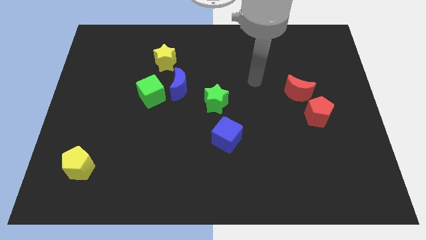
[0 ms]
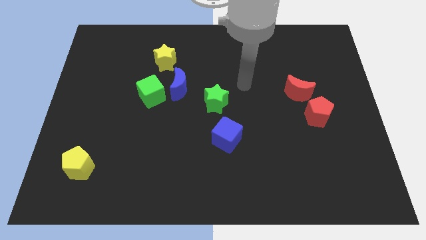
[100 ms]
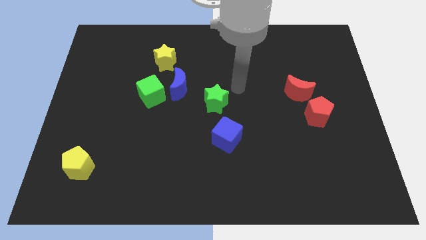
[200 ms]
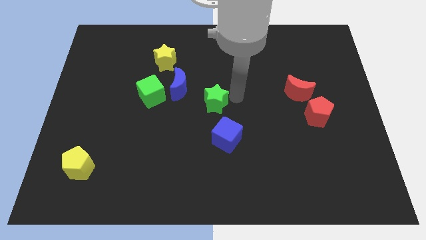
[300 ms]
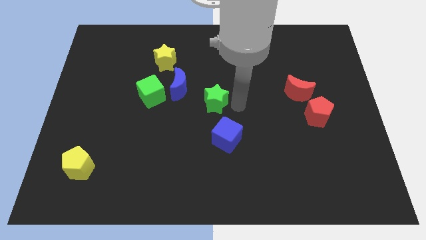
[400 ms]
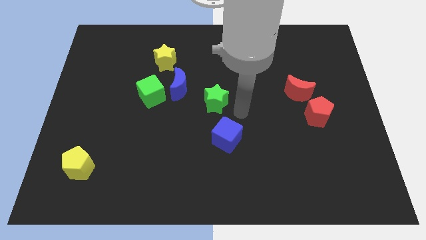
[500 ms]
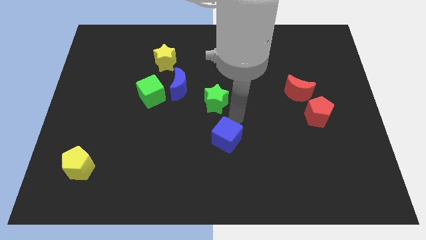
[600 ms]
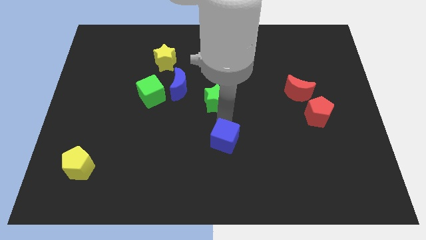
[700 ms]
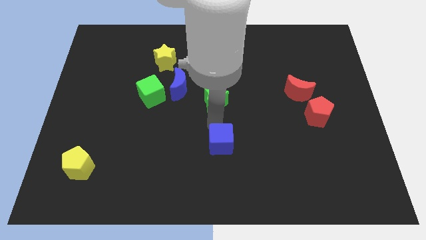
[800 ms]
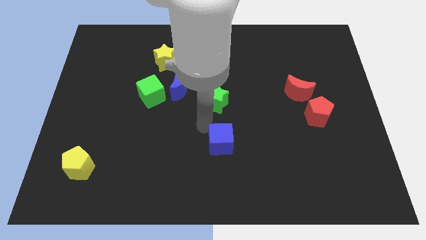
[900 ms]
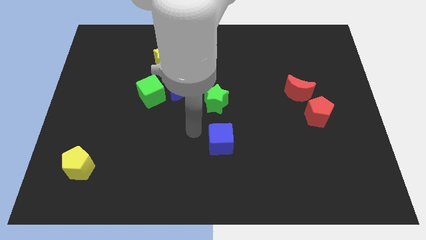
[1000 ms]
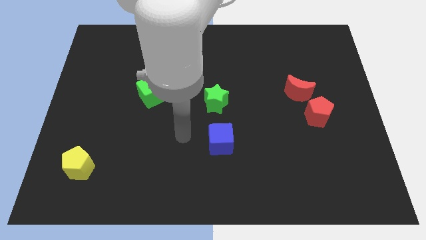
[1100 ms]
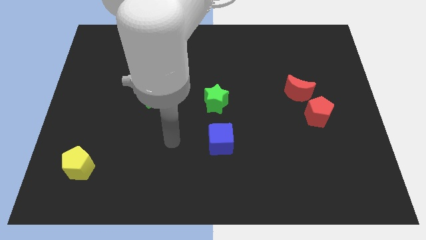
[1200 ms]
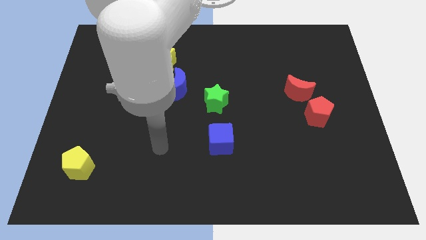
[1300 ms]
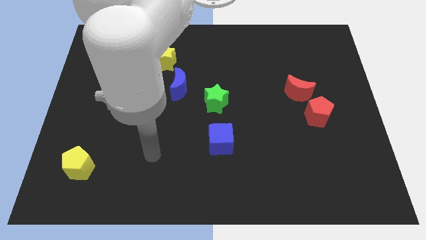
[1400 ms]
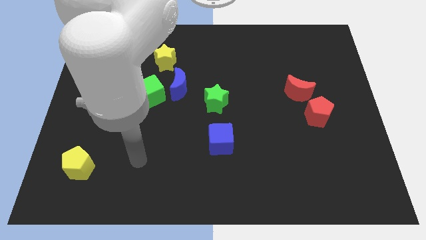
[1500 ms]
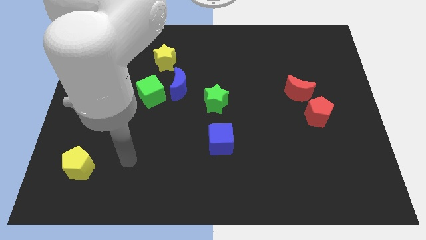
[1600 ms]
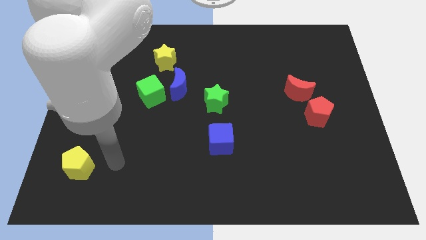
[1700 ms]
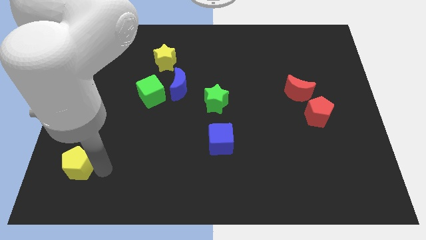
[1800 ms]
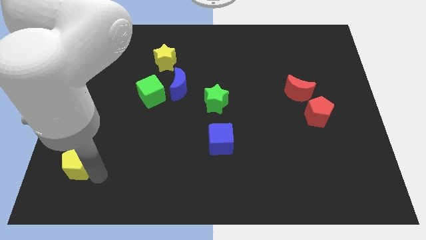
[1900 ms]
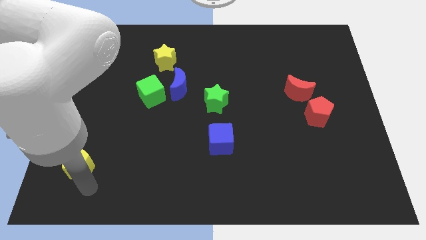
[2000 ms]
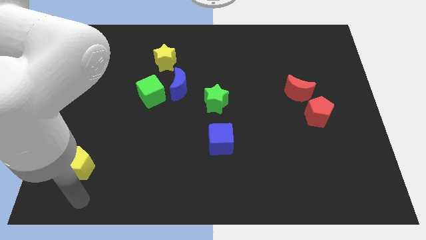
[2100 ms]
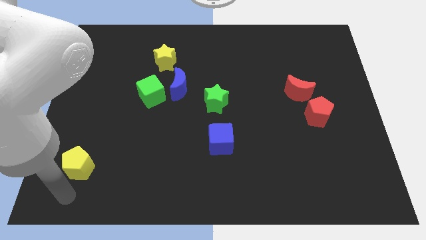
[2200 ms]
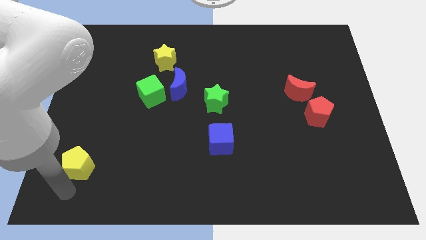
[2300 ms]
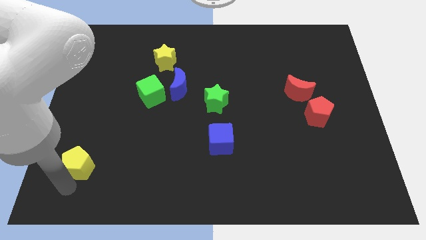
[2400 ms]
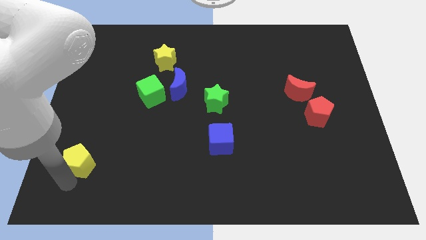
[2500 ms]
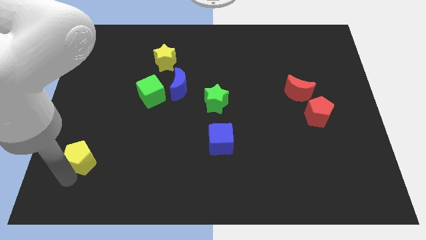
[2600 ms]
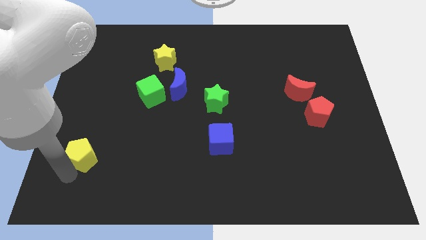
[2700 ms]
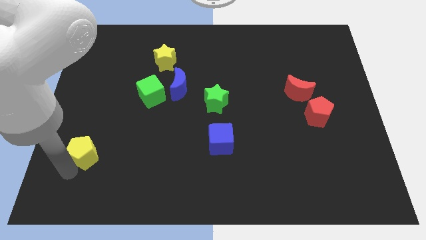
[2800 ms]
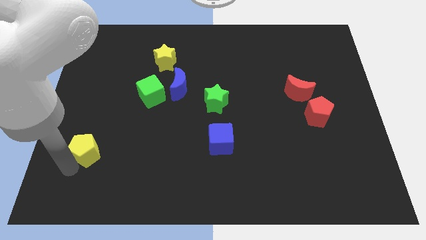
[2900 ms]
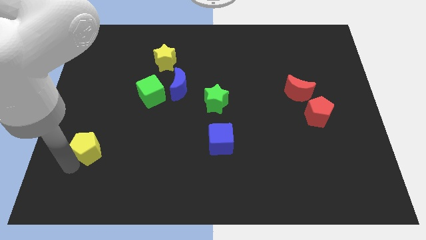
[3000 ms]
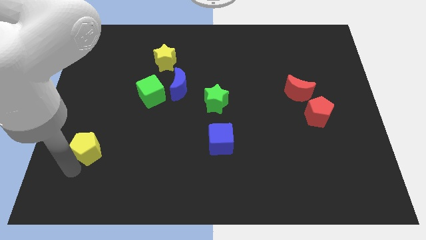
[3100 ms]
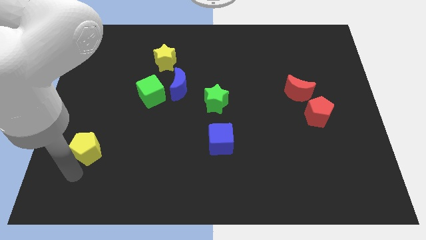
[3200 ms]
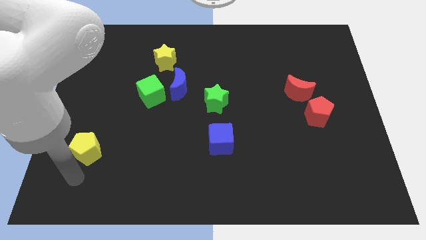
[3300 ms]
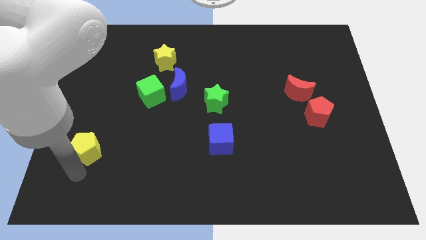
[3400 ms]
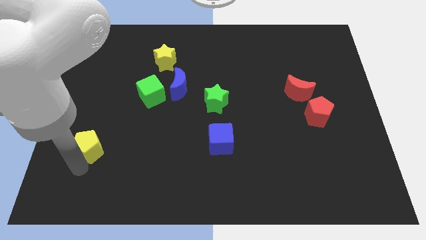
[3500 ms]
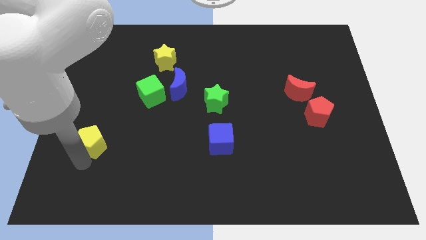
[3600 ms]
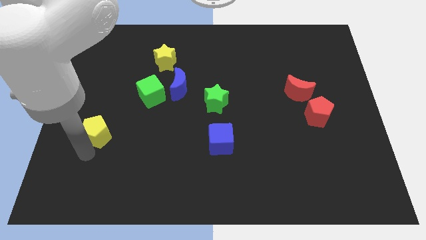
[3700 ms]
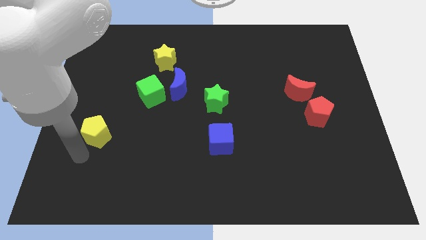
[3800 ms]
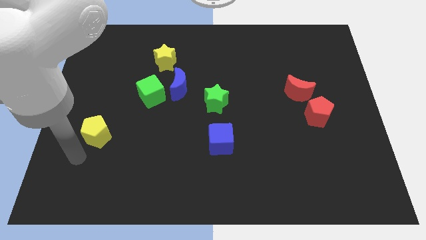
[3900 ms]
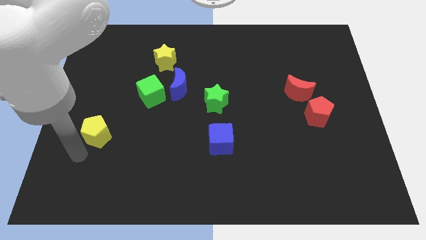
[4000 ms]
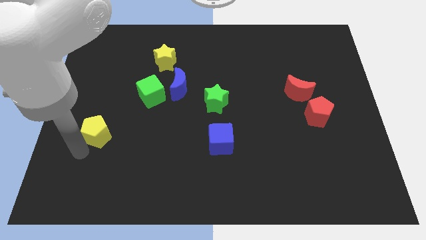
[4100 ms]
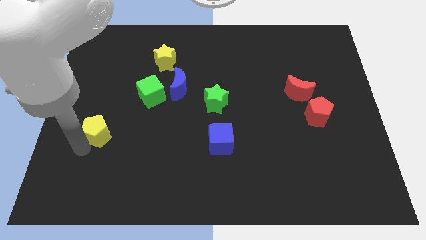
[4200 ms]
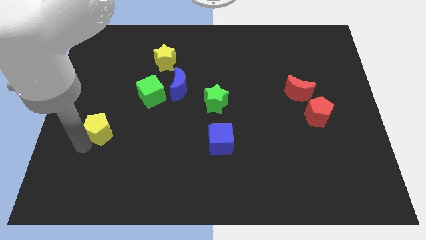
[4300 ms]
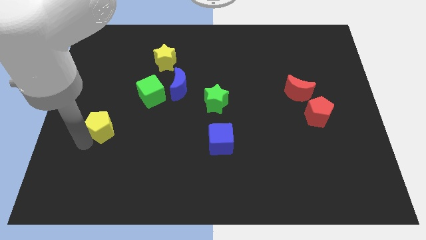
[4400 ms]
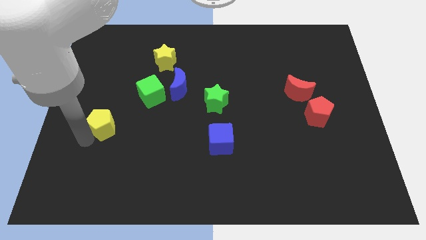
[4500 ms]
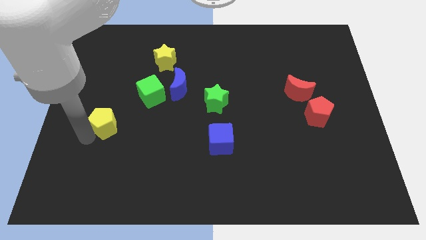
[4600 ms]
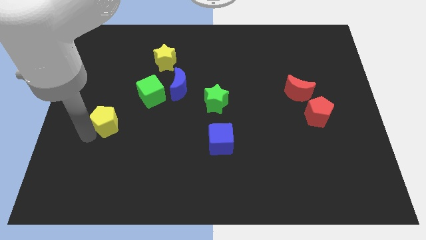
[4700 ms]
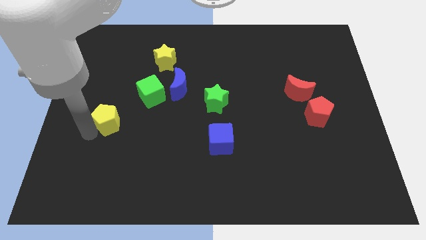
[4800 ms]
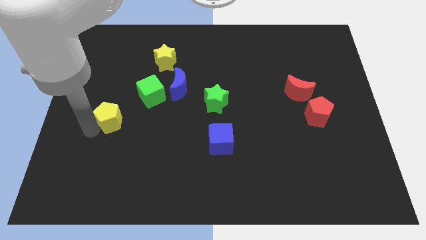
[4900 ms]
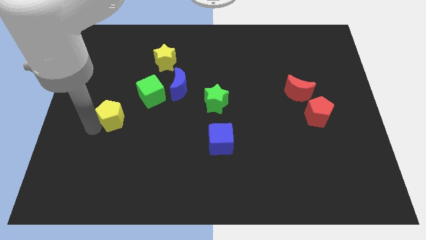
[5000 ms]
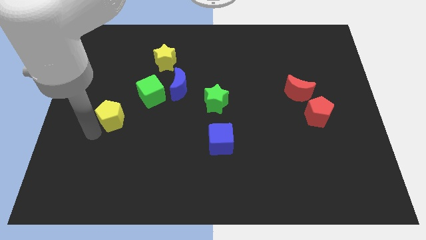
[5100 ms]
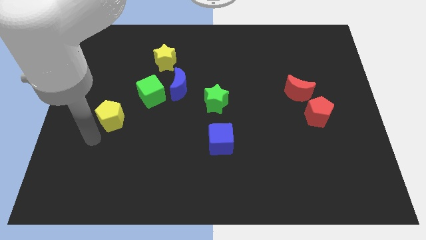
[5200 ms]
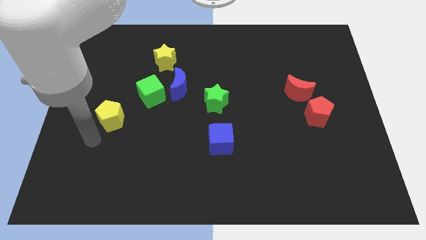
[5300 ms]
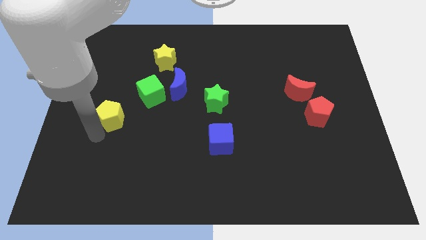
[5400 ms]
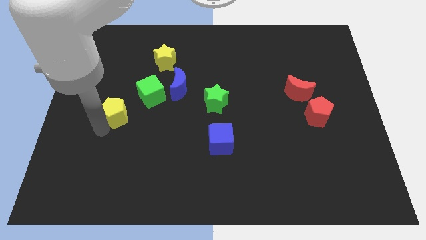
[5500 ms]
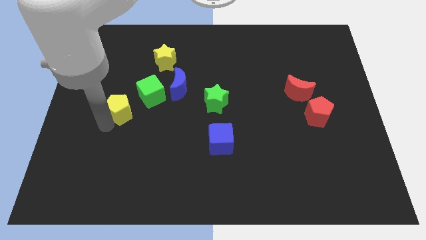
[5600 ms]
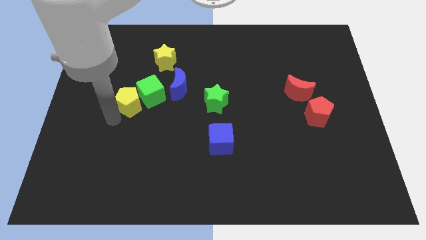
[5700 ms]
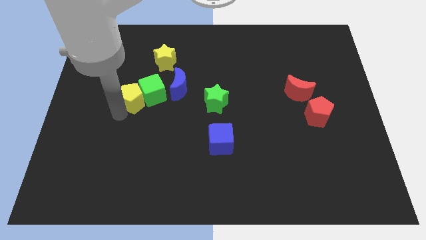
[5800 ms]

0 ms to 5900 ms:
slide the yellow pentagon just left of the blue moon

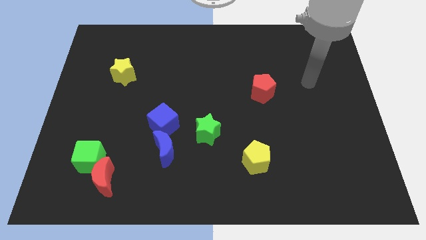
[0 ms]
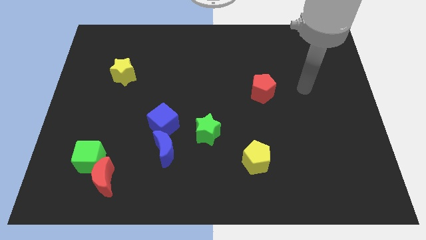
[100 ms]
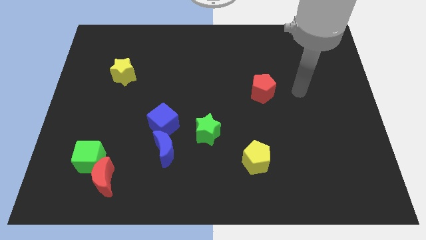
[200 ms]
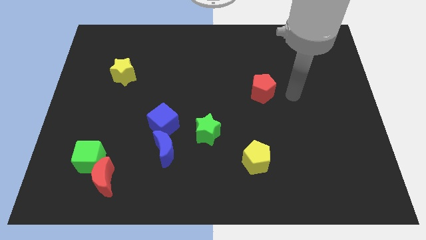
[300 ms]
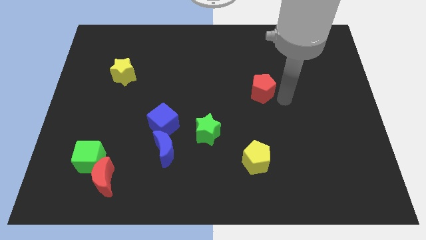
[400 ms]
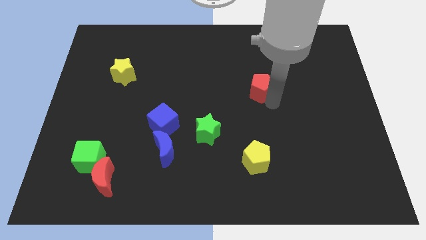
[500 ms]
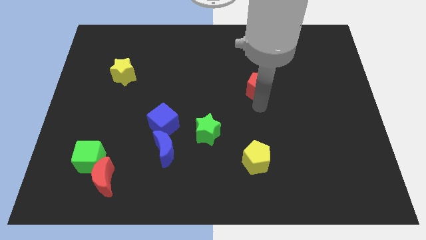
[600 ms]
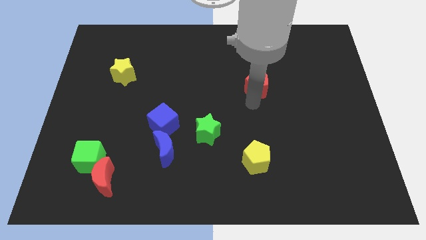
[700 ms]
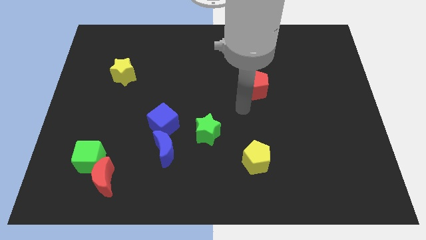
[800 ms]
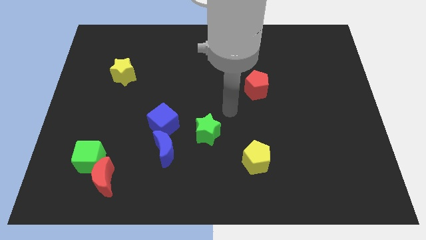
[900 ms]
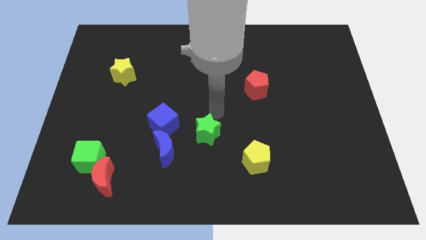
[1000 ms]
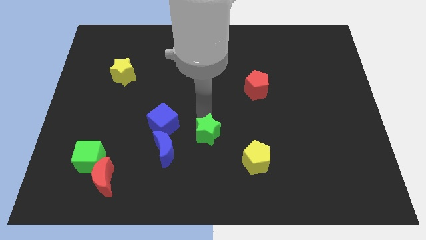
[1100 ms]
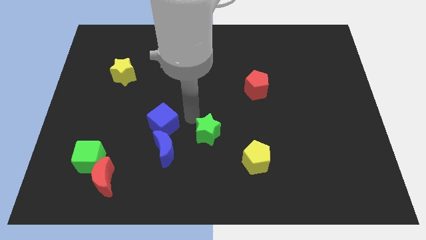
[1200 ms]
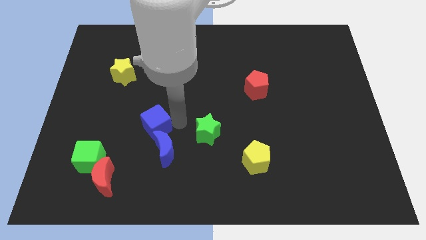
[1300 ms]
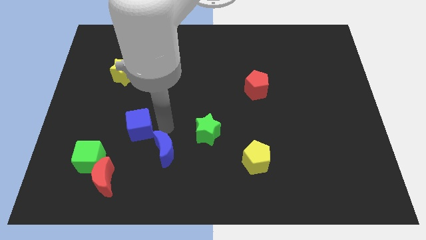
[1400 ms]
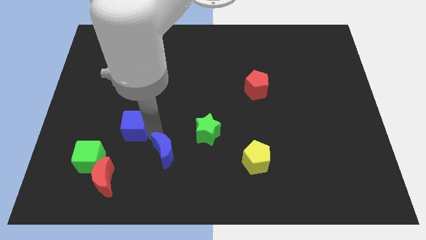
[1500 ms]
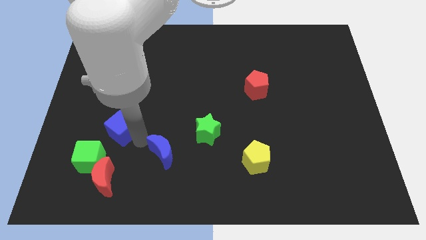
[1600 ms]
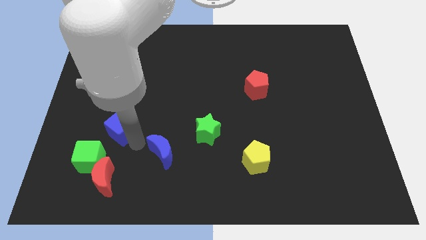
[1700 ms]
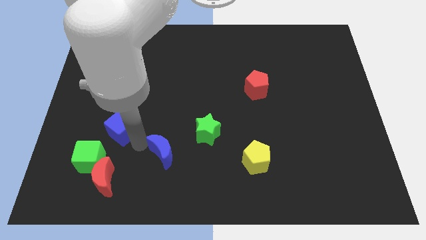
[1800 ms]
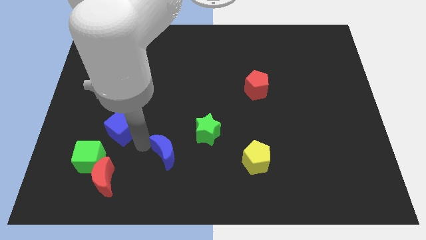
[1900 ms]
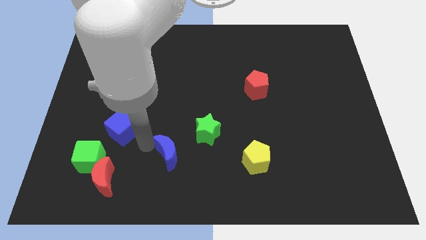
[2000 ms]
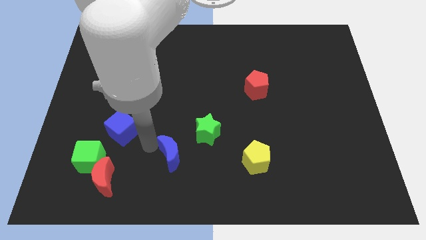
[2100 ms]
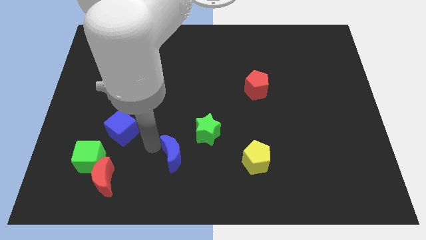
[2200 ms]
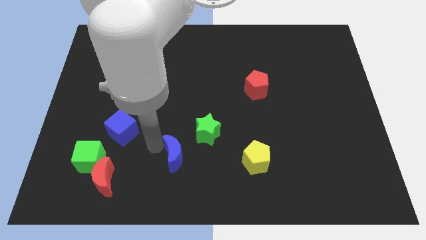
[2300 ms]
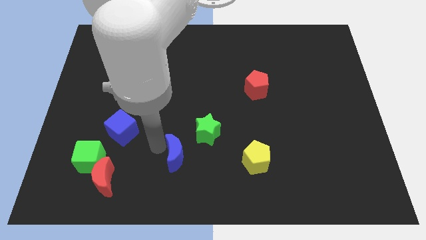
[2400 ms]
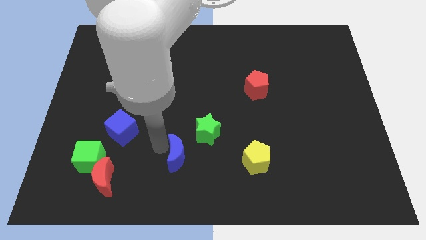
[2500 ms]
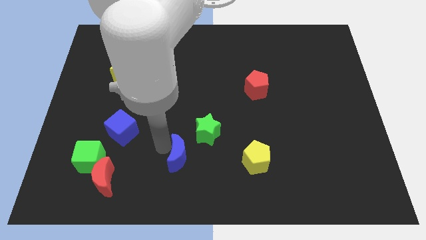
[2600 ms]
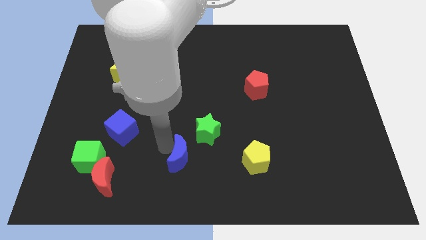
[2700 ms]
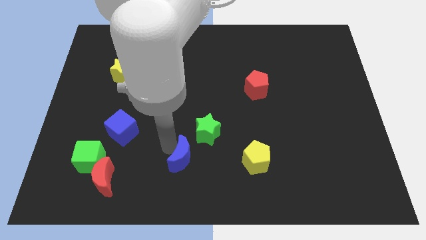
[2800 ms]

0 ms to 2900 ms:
slide the blue moon to the bottom side of the green star

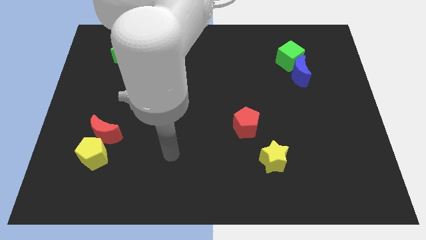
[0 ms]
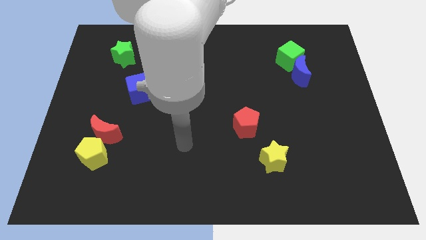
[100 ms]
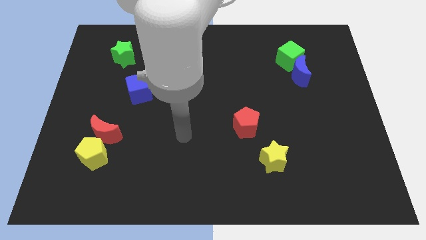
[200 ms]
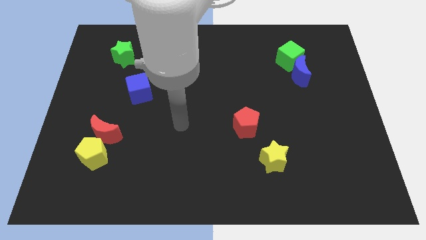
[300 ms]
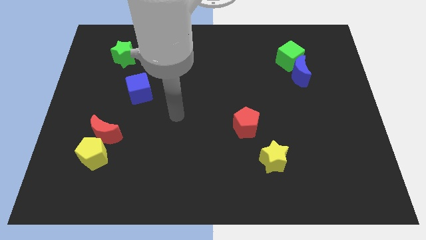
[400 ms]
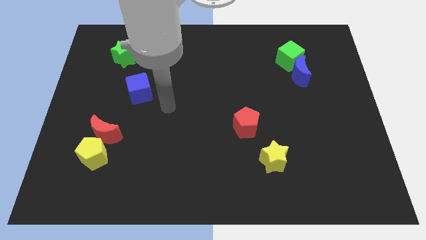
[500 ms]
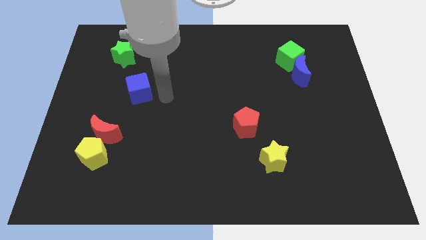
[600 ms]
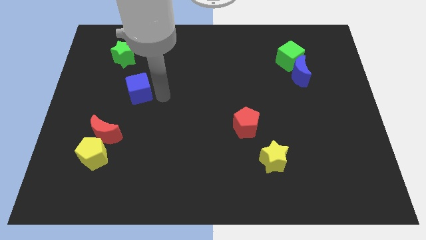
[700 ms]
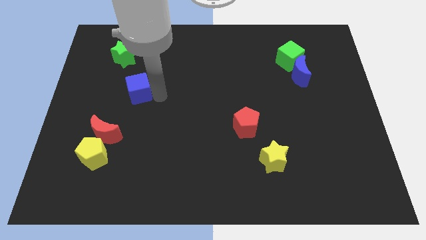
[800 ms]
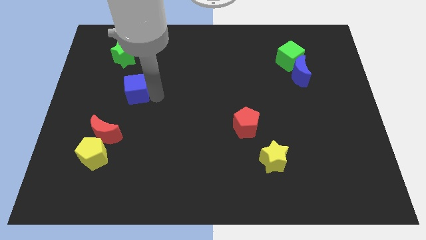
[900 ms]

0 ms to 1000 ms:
push the blue cube to the bottom side of the green star
